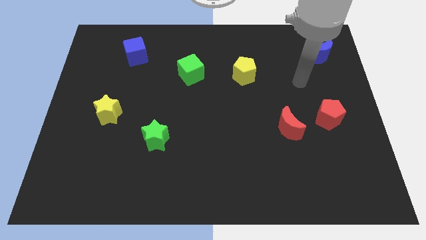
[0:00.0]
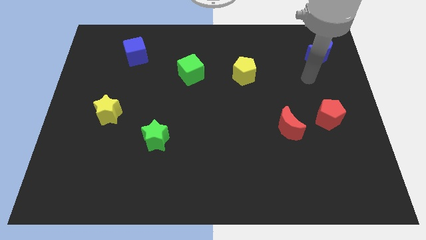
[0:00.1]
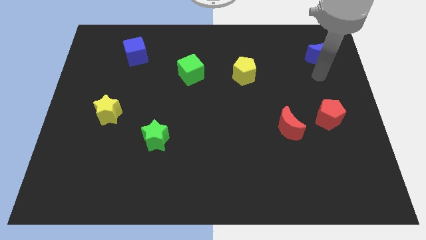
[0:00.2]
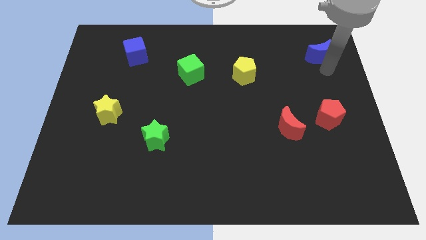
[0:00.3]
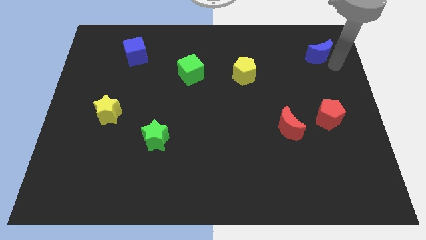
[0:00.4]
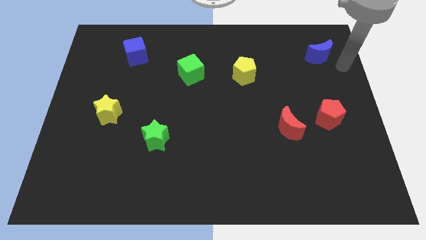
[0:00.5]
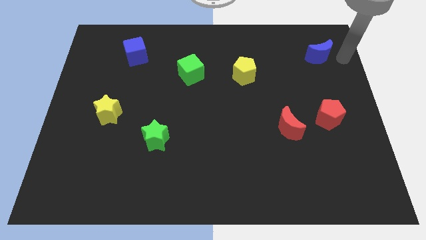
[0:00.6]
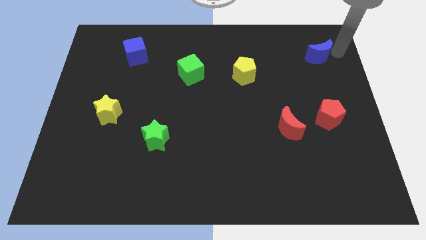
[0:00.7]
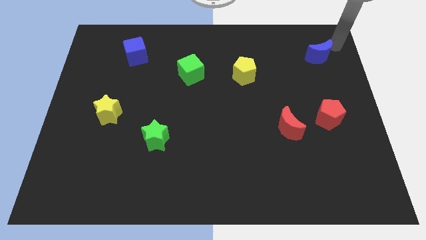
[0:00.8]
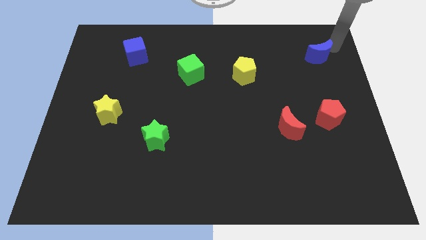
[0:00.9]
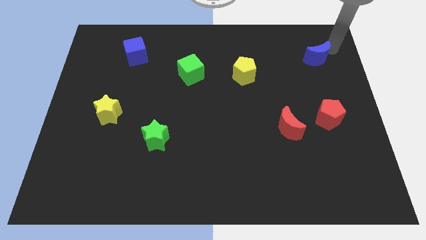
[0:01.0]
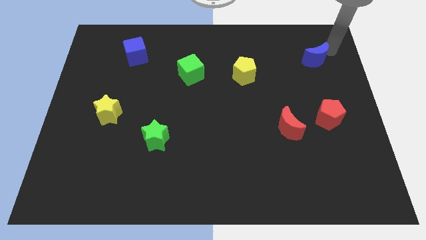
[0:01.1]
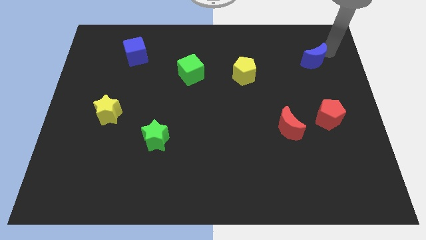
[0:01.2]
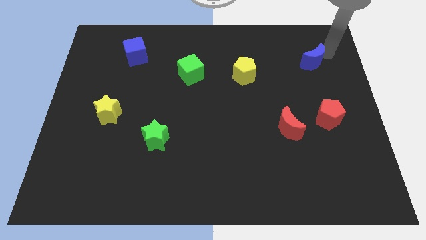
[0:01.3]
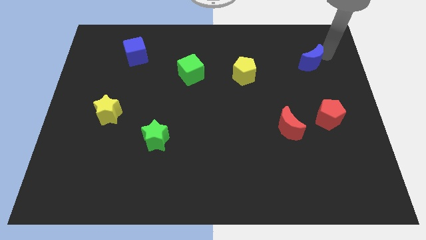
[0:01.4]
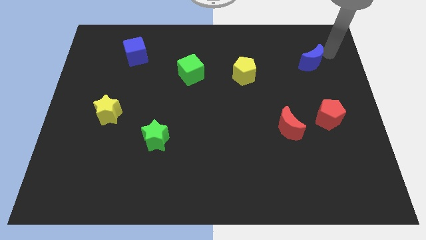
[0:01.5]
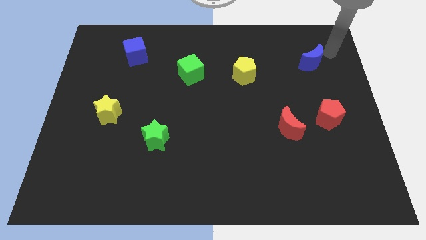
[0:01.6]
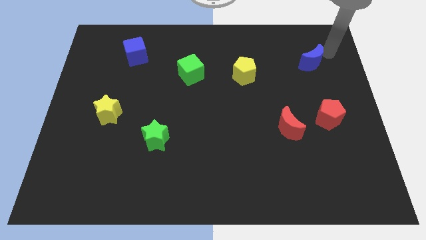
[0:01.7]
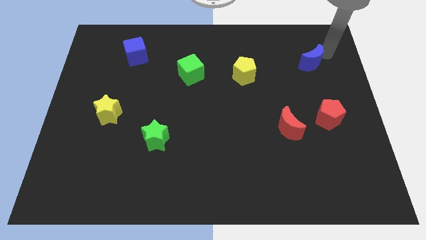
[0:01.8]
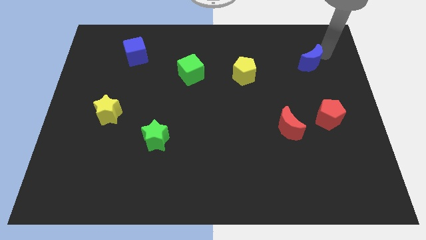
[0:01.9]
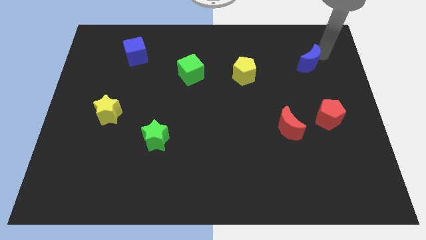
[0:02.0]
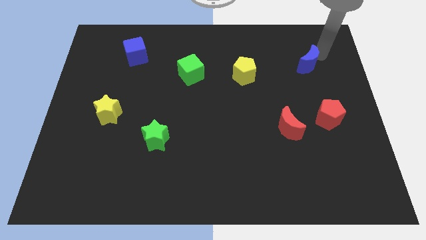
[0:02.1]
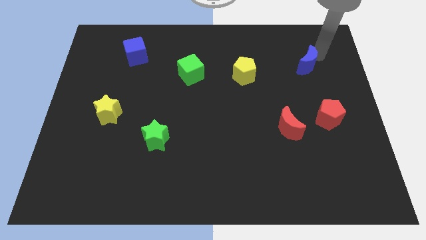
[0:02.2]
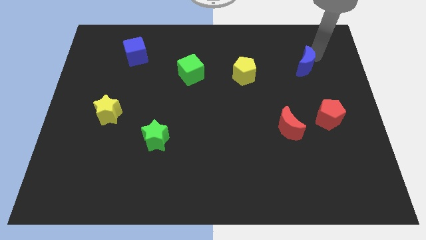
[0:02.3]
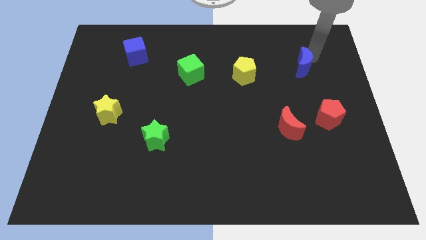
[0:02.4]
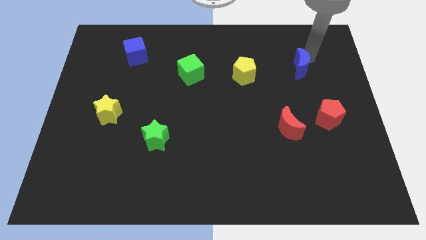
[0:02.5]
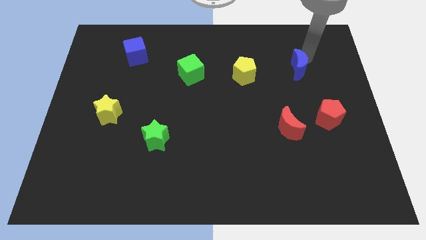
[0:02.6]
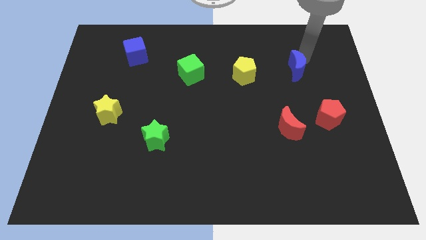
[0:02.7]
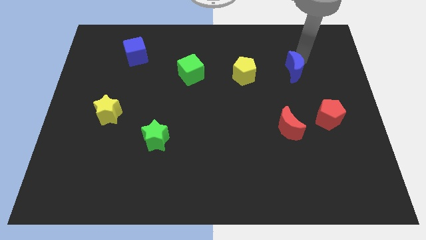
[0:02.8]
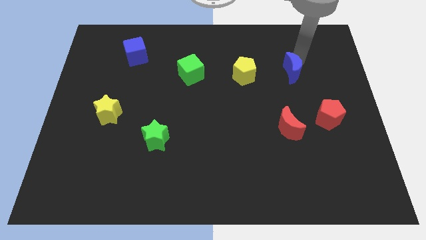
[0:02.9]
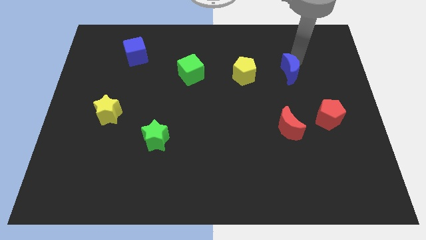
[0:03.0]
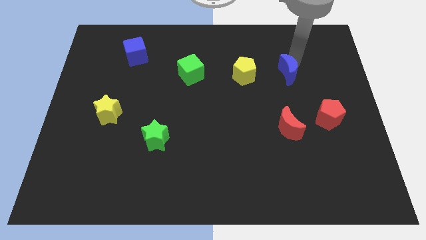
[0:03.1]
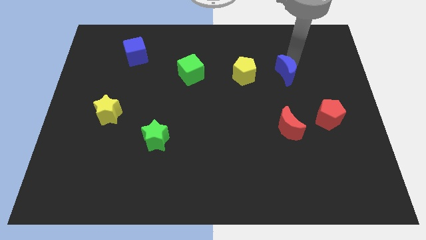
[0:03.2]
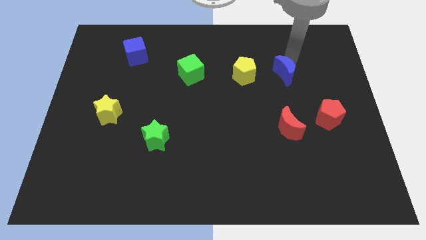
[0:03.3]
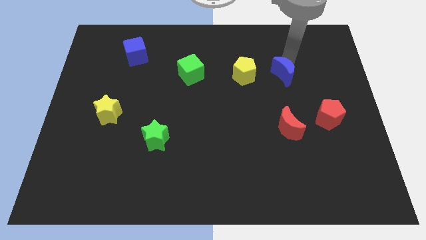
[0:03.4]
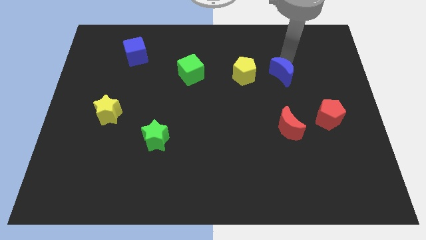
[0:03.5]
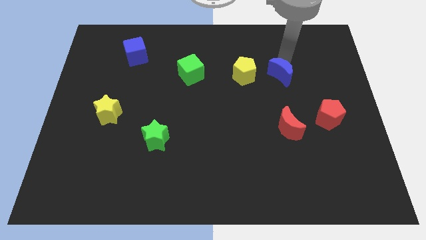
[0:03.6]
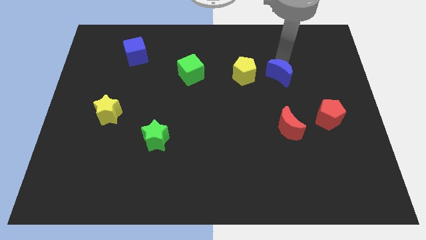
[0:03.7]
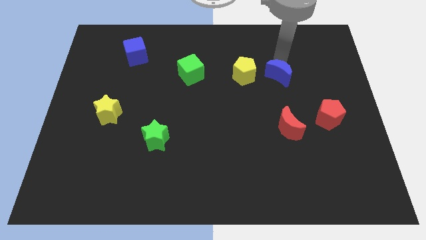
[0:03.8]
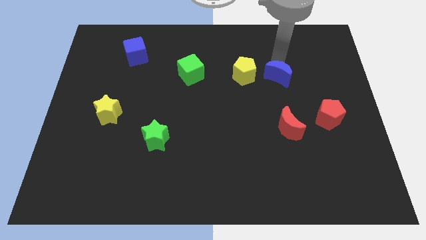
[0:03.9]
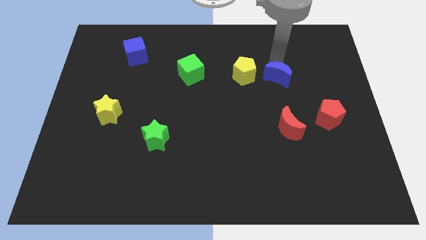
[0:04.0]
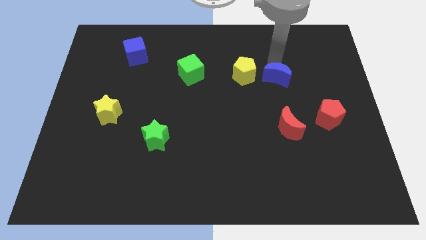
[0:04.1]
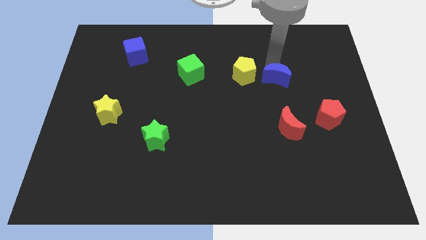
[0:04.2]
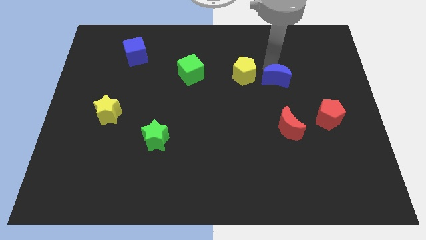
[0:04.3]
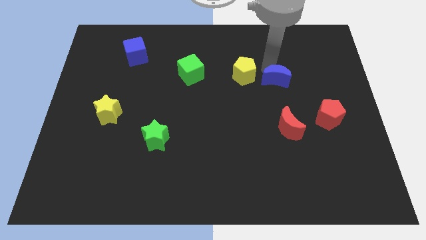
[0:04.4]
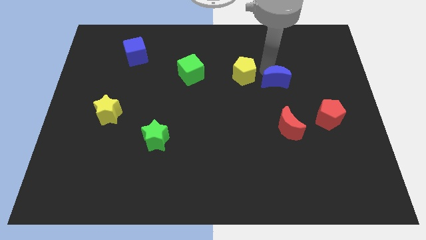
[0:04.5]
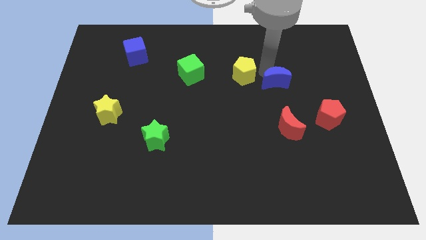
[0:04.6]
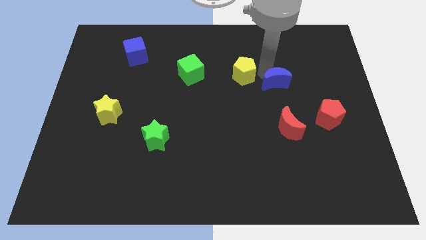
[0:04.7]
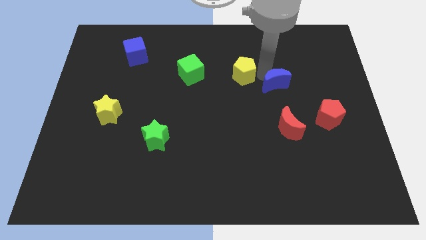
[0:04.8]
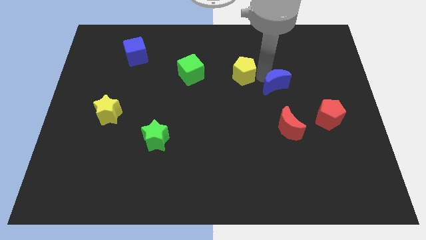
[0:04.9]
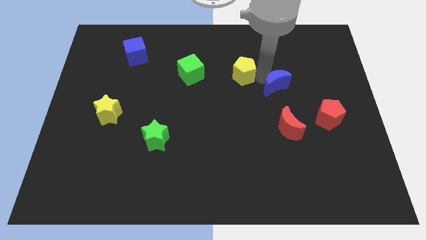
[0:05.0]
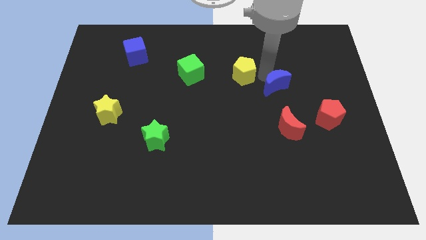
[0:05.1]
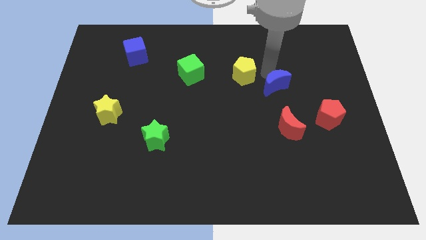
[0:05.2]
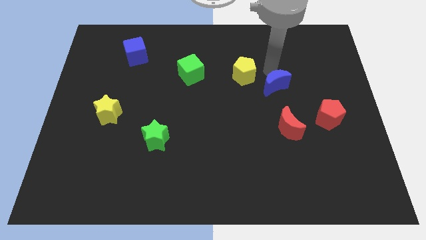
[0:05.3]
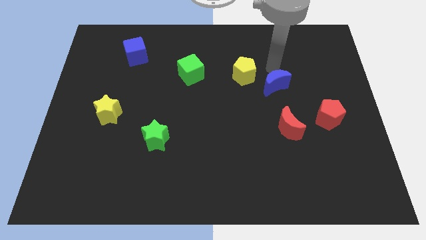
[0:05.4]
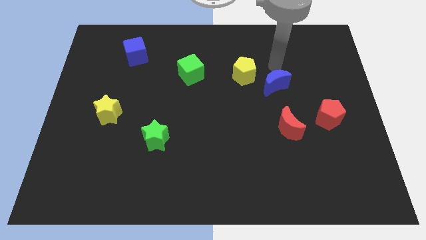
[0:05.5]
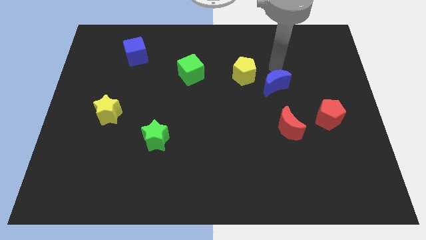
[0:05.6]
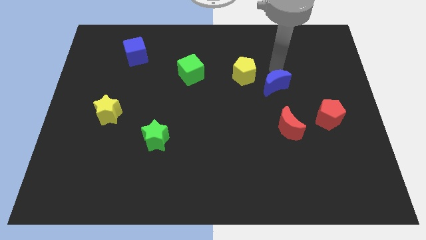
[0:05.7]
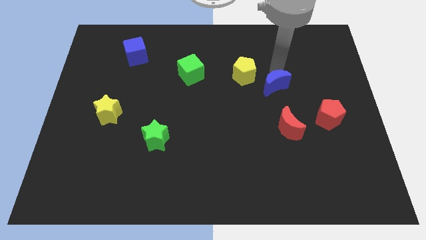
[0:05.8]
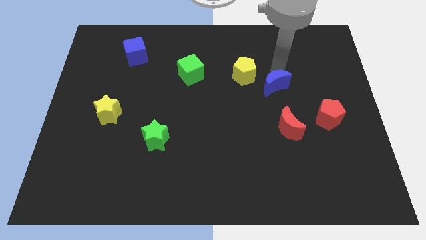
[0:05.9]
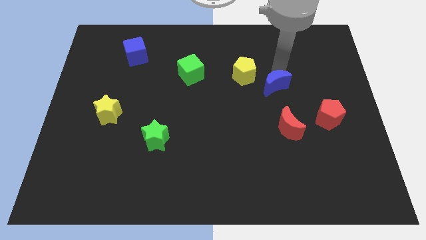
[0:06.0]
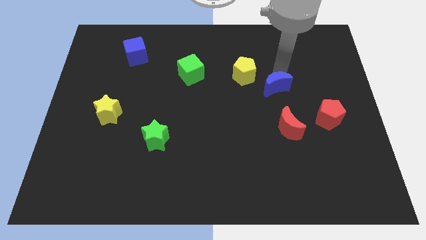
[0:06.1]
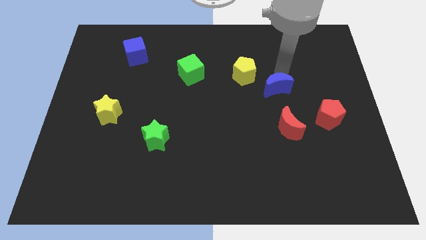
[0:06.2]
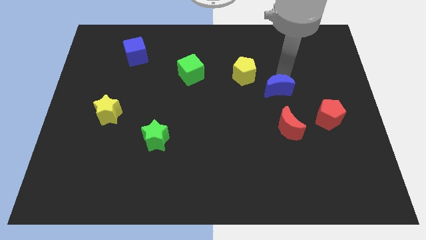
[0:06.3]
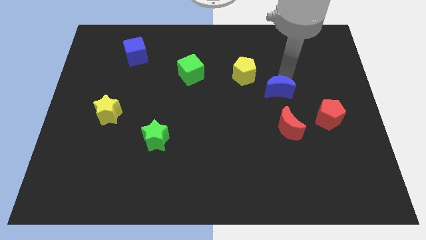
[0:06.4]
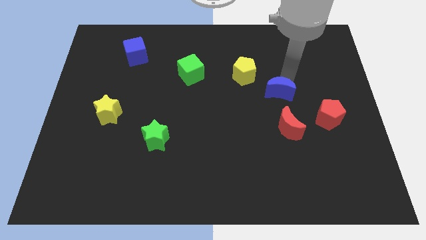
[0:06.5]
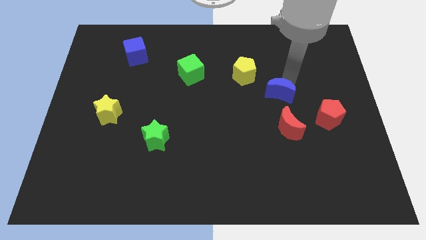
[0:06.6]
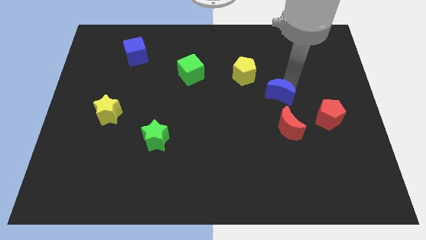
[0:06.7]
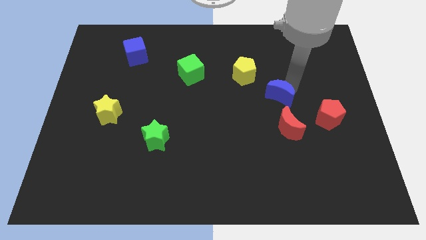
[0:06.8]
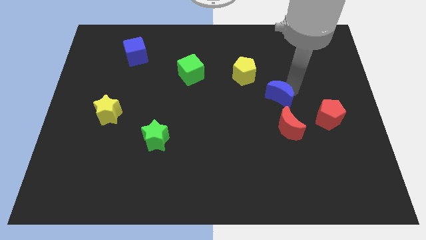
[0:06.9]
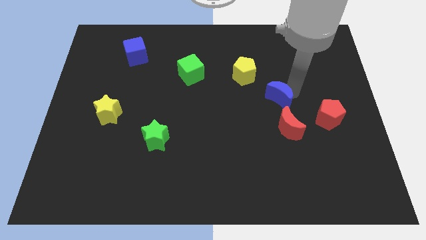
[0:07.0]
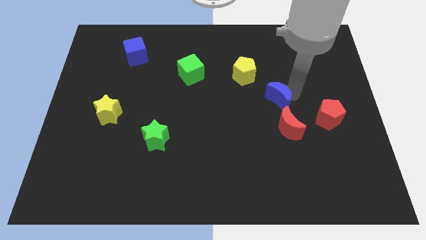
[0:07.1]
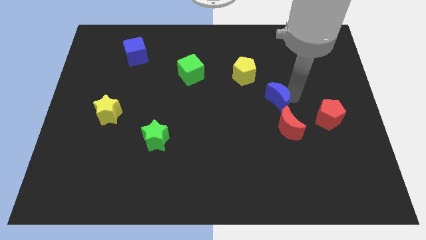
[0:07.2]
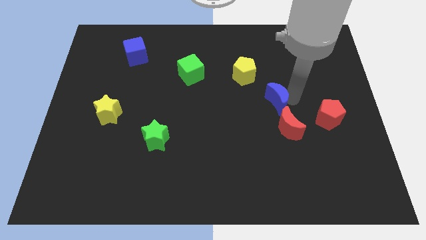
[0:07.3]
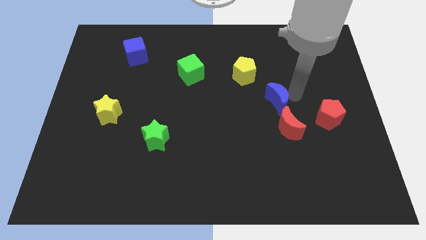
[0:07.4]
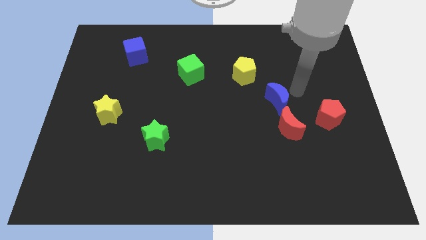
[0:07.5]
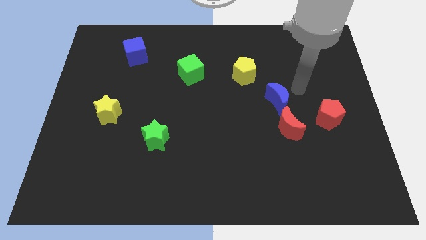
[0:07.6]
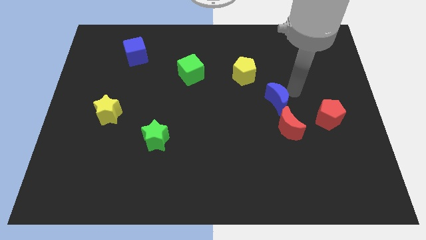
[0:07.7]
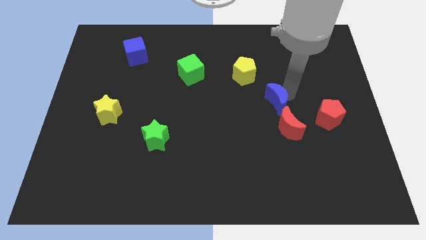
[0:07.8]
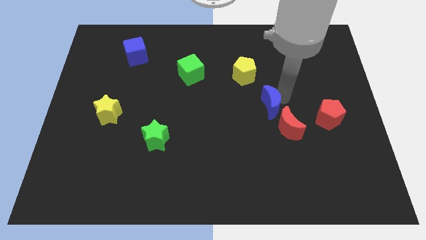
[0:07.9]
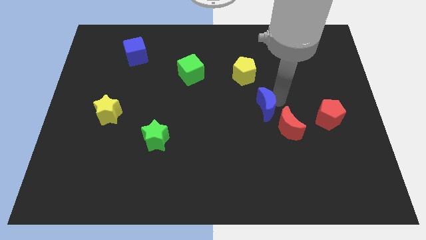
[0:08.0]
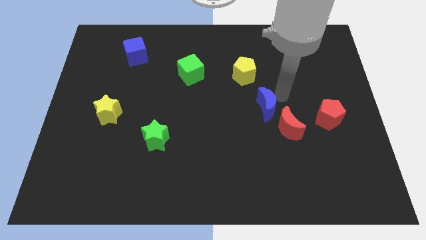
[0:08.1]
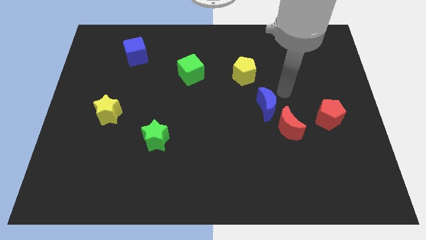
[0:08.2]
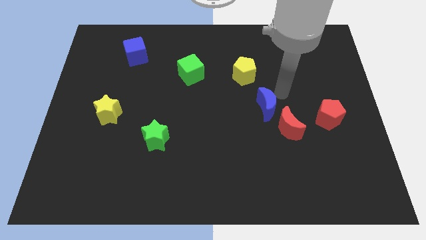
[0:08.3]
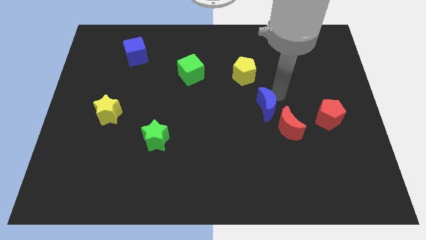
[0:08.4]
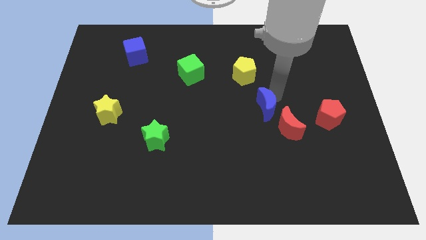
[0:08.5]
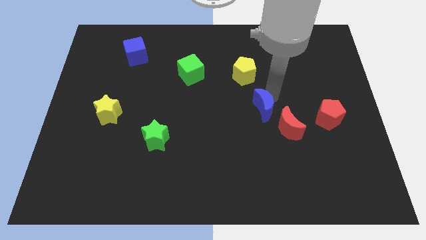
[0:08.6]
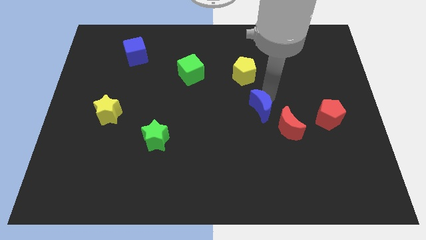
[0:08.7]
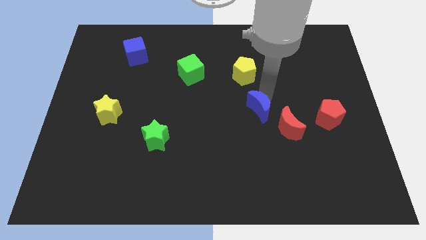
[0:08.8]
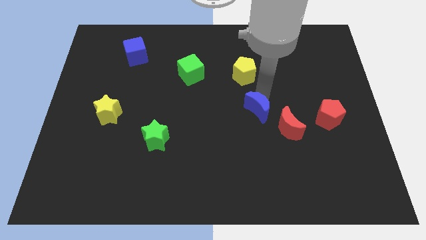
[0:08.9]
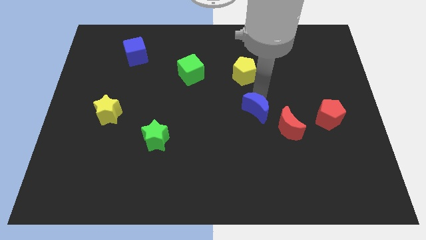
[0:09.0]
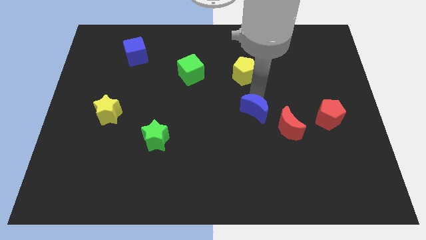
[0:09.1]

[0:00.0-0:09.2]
slide the blue moon left of the red moon
